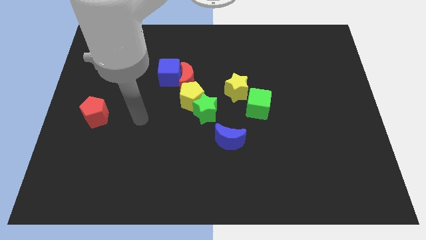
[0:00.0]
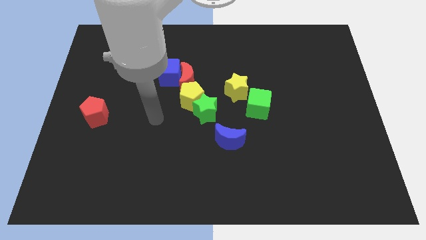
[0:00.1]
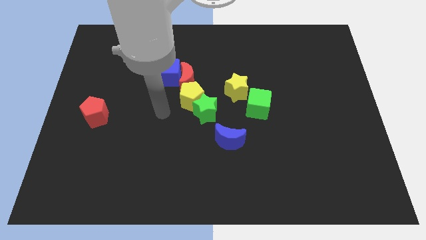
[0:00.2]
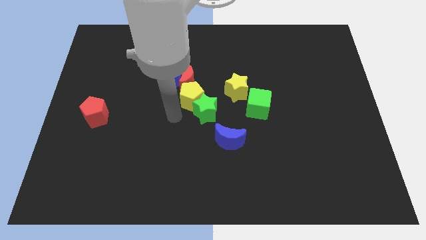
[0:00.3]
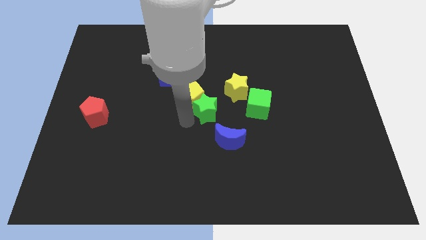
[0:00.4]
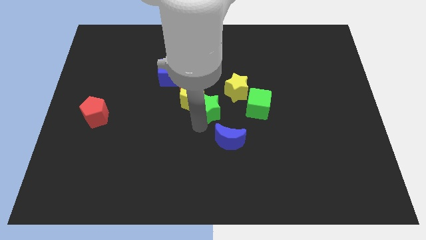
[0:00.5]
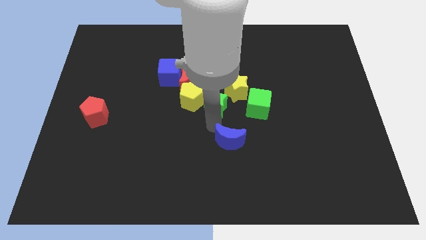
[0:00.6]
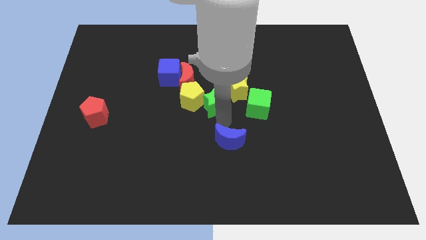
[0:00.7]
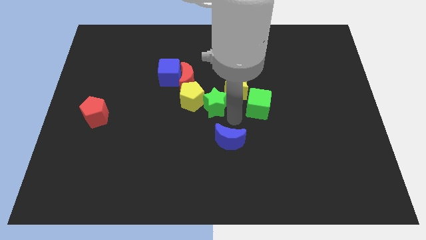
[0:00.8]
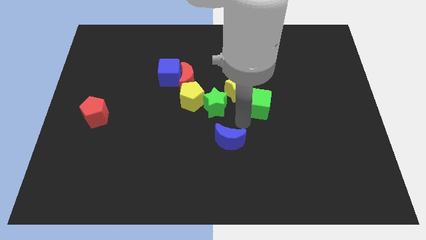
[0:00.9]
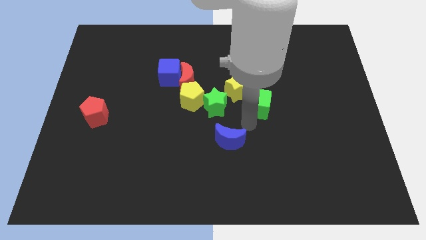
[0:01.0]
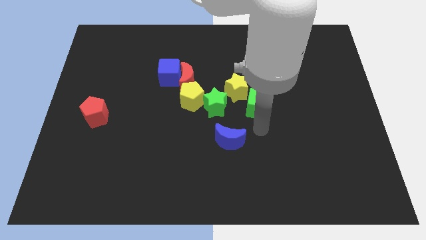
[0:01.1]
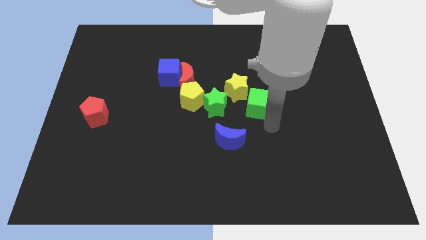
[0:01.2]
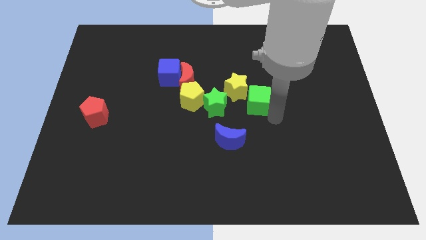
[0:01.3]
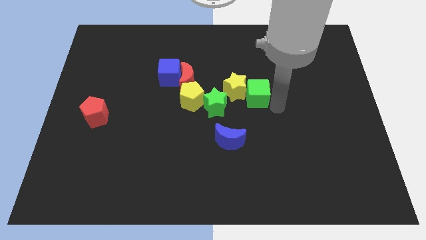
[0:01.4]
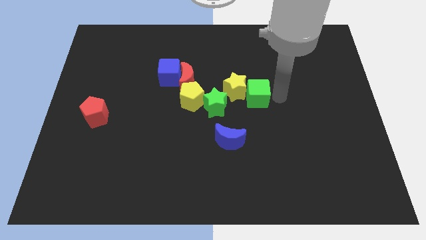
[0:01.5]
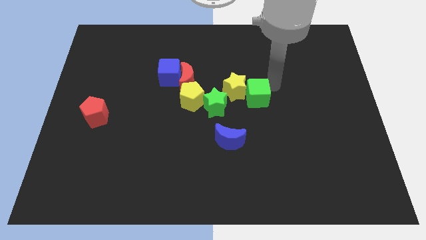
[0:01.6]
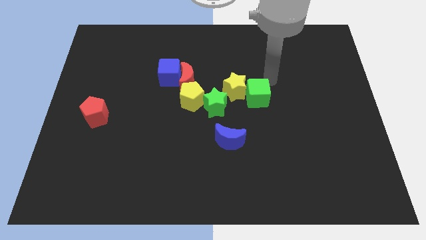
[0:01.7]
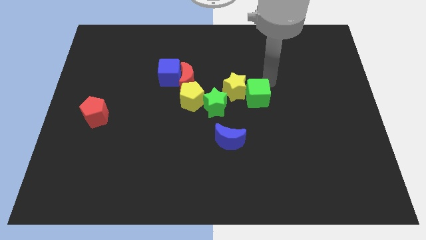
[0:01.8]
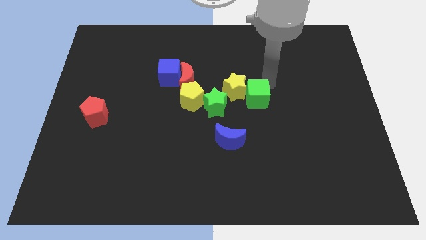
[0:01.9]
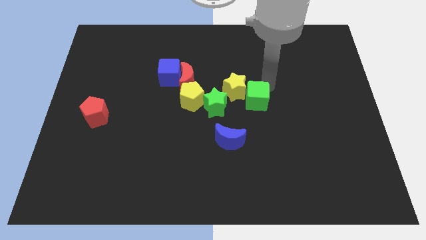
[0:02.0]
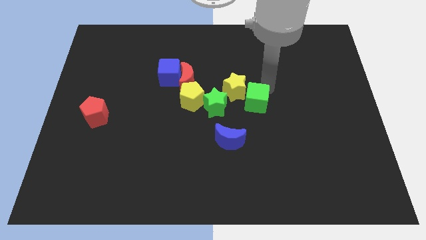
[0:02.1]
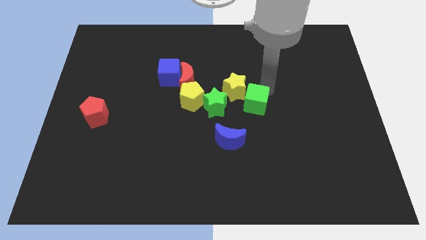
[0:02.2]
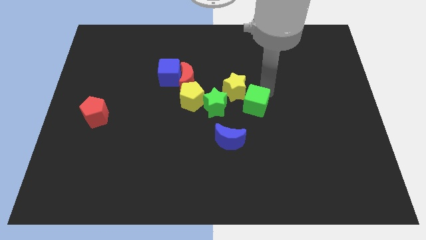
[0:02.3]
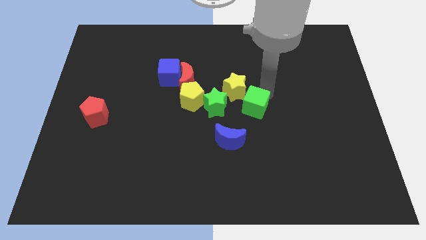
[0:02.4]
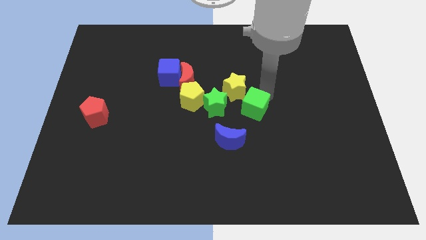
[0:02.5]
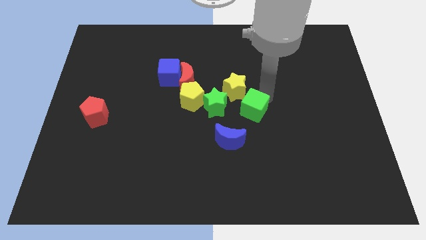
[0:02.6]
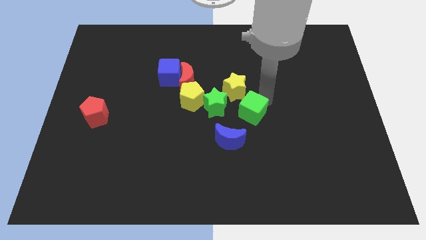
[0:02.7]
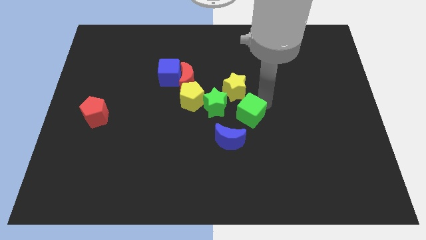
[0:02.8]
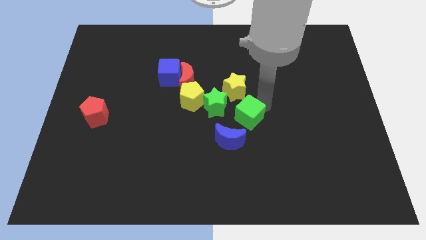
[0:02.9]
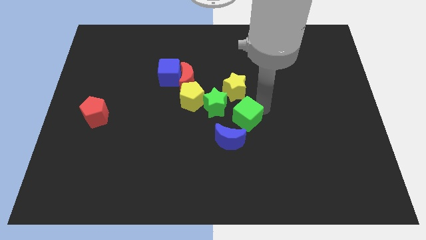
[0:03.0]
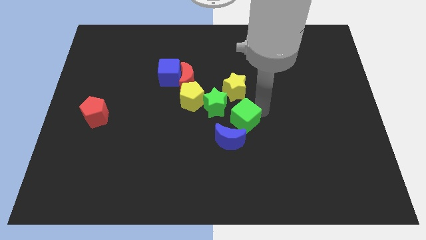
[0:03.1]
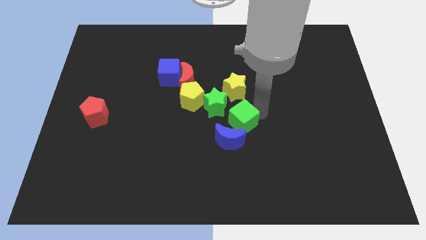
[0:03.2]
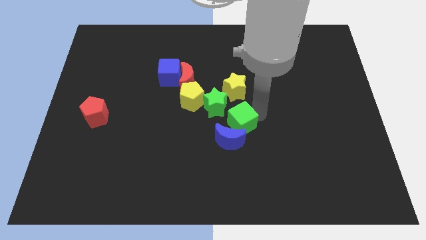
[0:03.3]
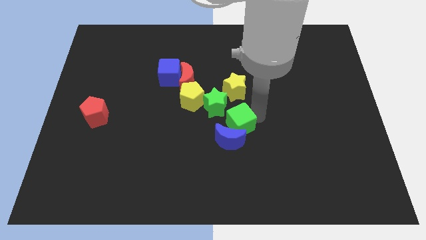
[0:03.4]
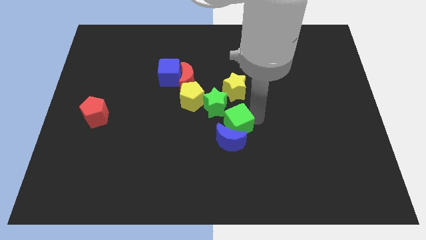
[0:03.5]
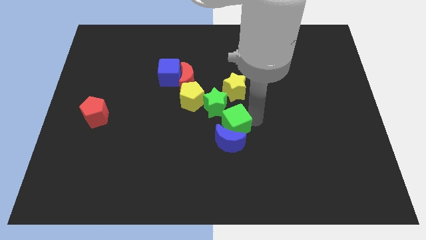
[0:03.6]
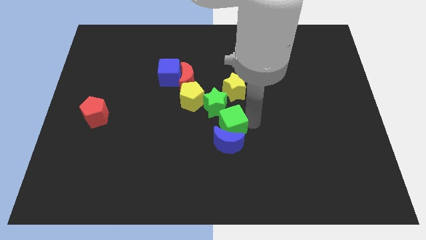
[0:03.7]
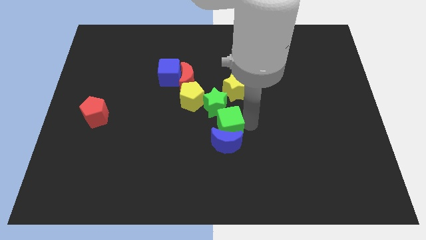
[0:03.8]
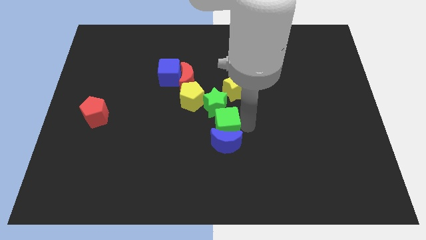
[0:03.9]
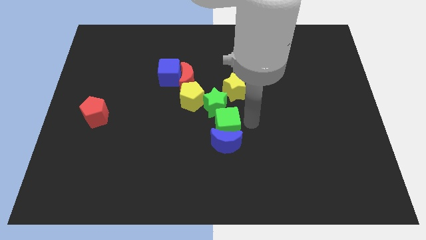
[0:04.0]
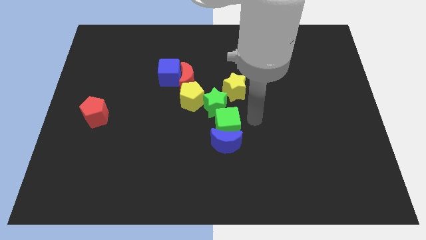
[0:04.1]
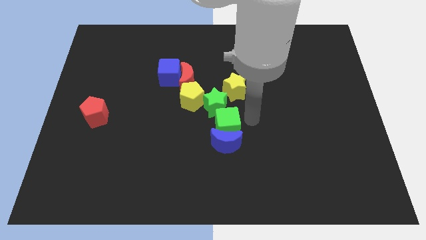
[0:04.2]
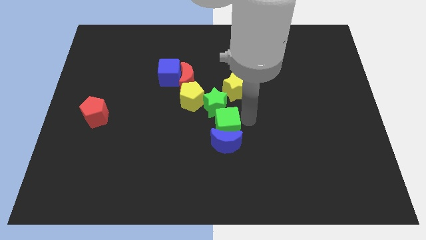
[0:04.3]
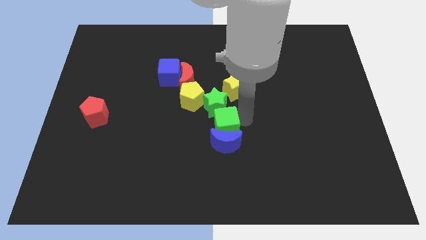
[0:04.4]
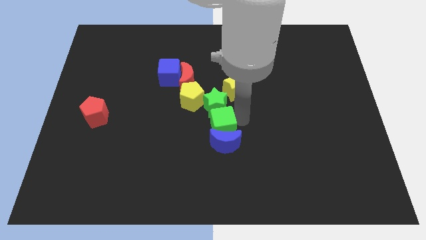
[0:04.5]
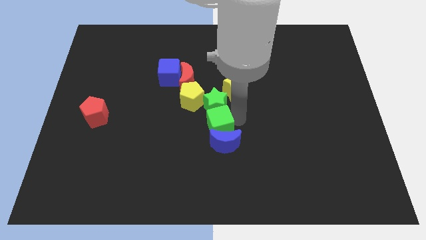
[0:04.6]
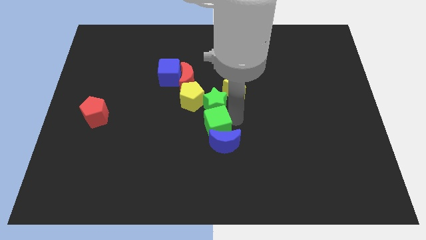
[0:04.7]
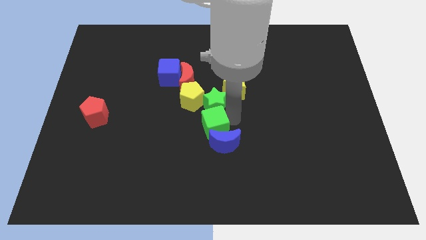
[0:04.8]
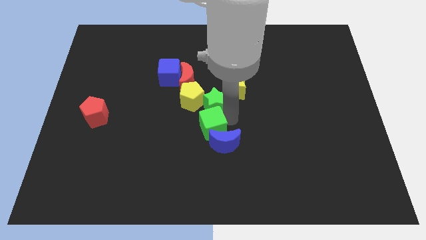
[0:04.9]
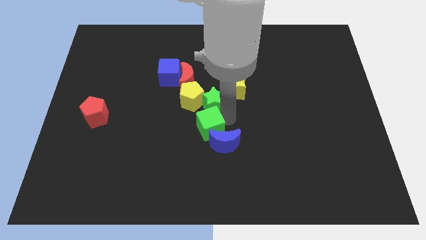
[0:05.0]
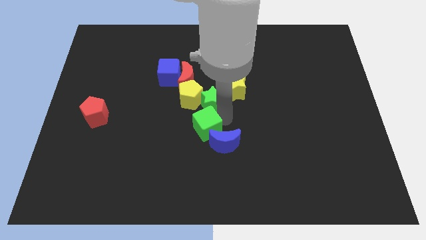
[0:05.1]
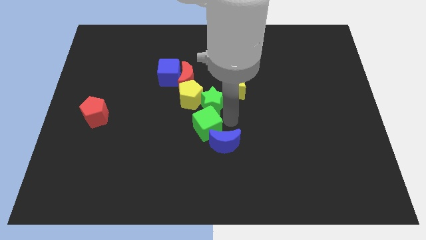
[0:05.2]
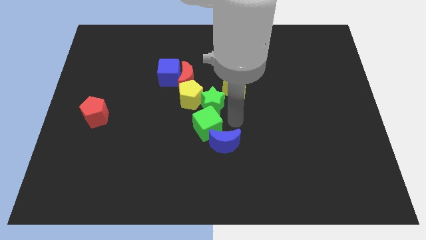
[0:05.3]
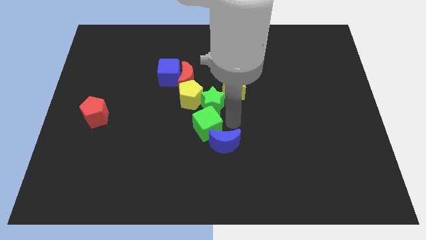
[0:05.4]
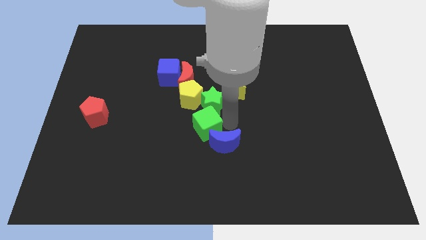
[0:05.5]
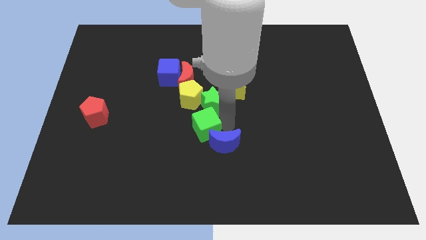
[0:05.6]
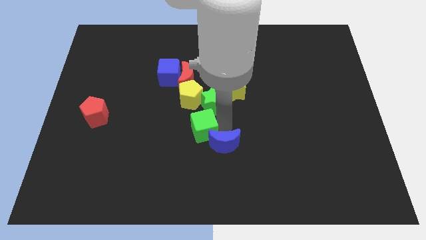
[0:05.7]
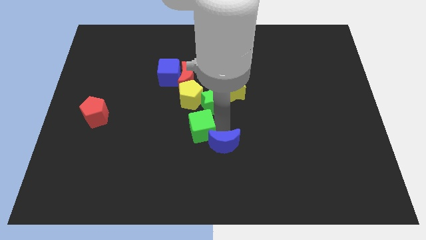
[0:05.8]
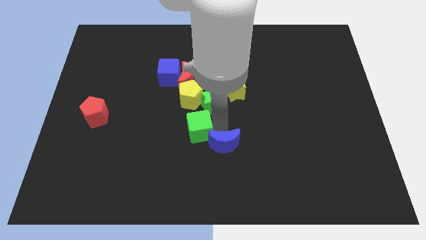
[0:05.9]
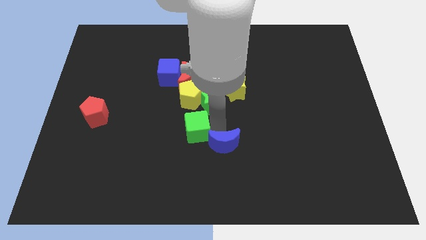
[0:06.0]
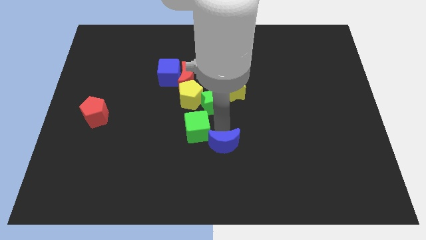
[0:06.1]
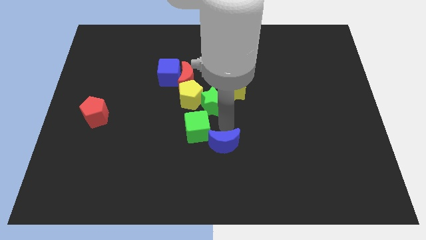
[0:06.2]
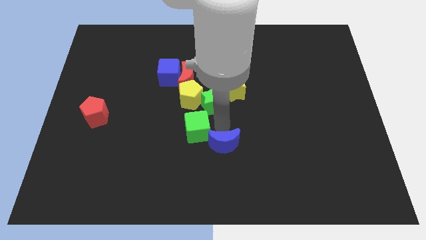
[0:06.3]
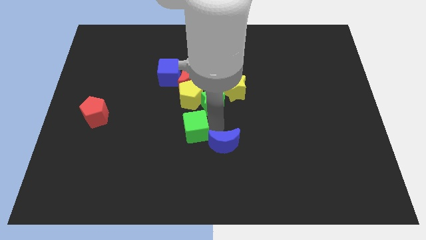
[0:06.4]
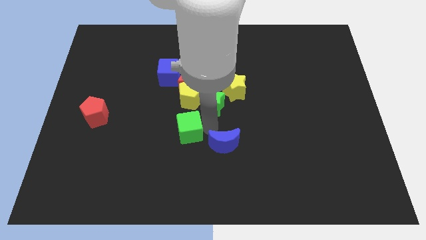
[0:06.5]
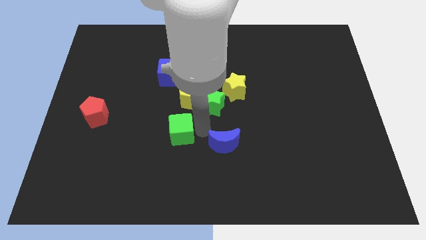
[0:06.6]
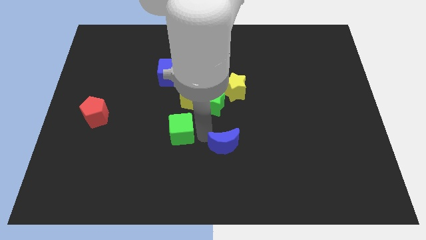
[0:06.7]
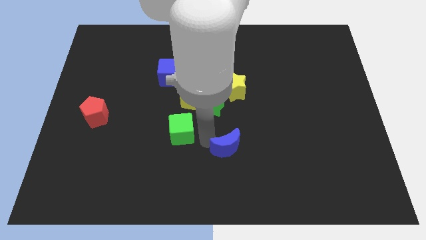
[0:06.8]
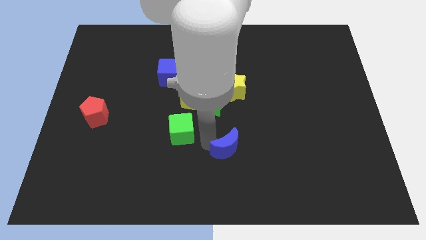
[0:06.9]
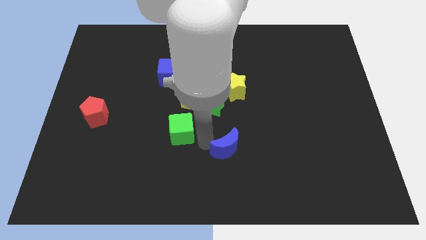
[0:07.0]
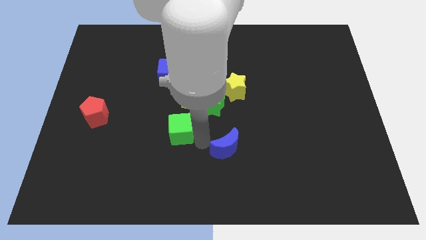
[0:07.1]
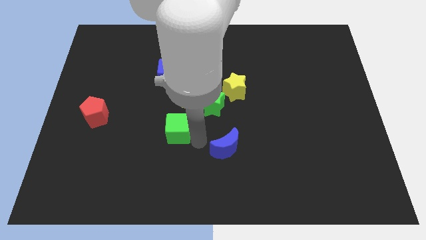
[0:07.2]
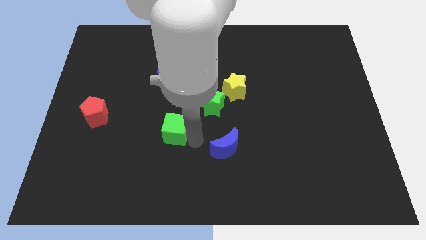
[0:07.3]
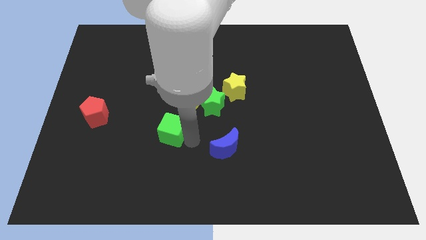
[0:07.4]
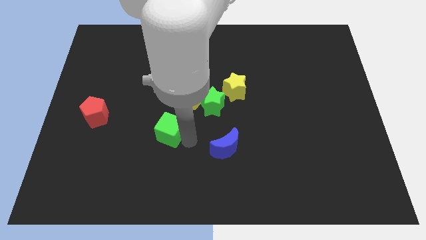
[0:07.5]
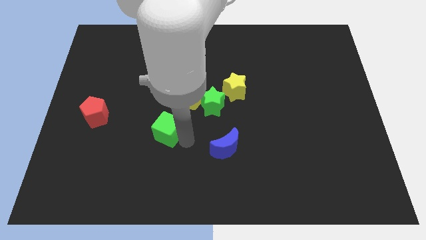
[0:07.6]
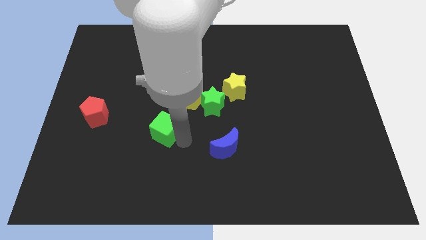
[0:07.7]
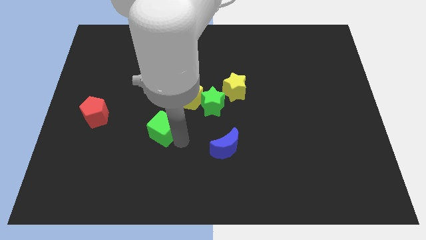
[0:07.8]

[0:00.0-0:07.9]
slide the green cube left
